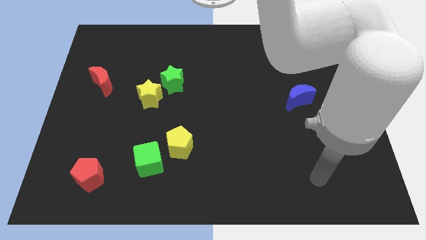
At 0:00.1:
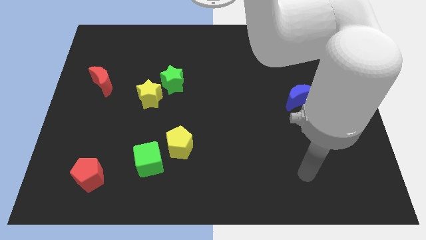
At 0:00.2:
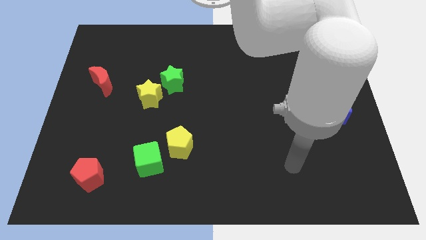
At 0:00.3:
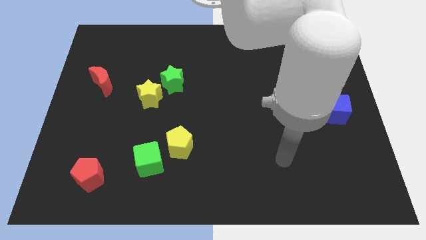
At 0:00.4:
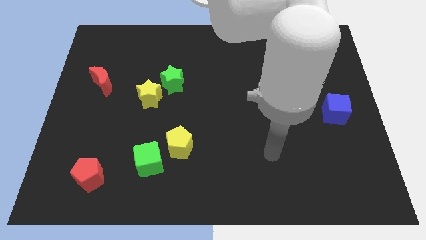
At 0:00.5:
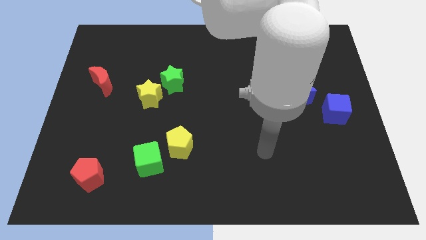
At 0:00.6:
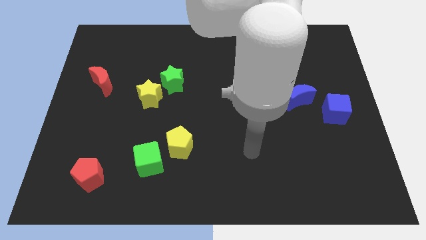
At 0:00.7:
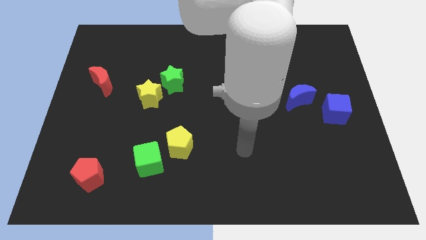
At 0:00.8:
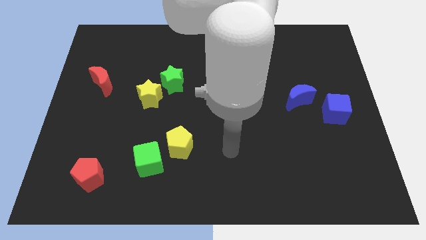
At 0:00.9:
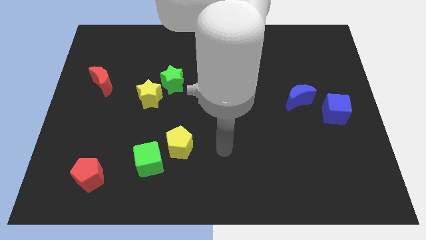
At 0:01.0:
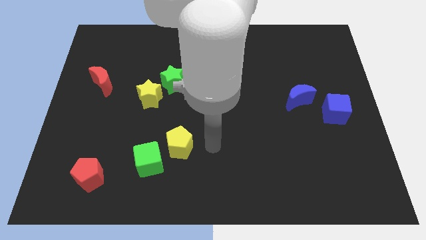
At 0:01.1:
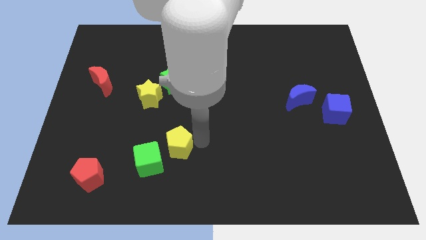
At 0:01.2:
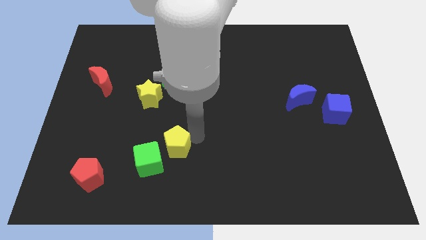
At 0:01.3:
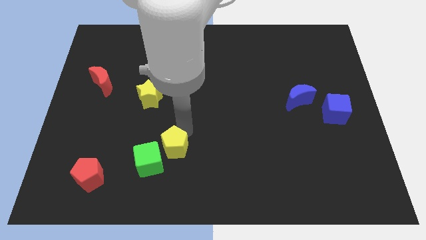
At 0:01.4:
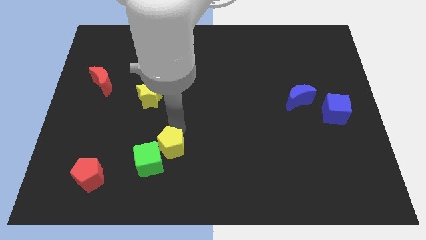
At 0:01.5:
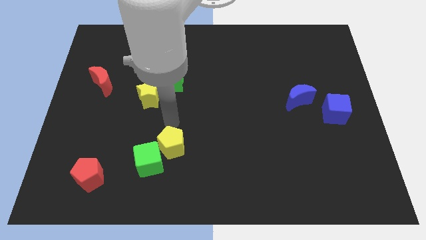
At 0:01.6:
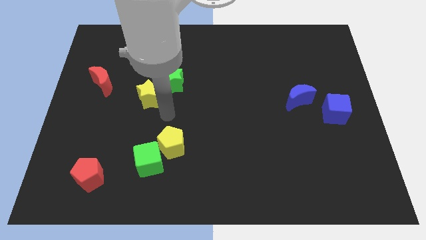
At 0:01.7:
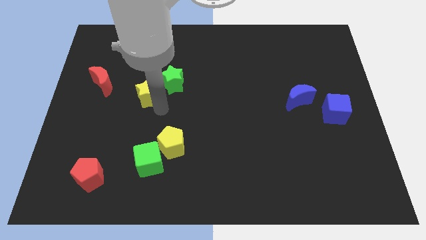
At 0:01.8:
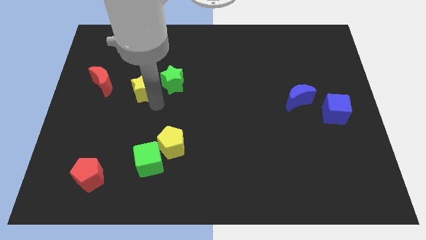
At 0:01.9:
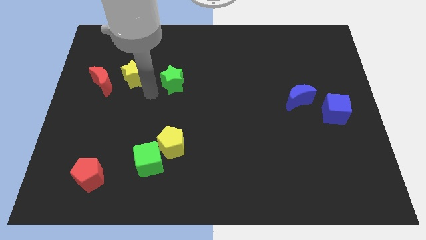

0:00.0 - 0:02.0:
pull the green star apart from the yellow star

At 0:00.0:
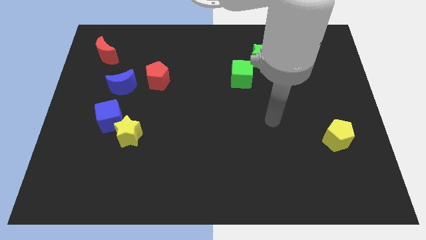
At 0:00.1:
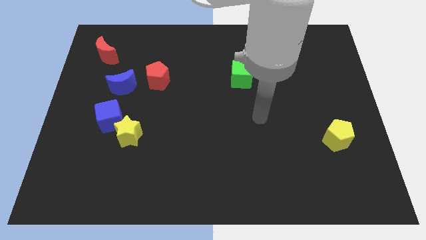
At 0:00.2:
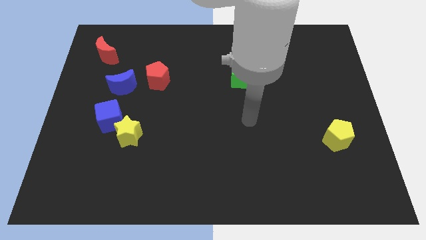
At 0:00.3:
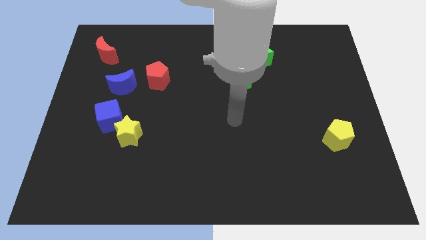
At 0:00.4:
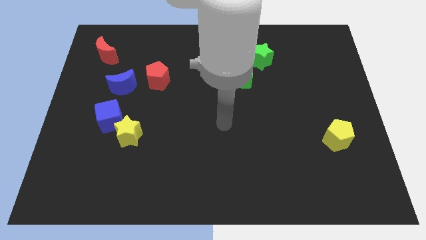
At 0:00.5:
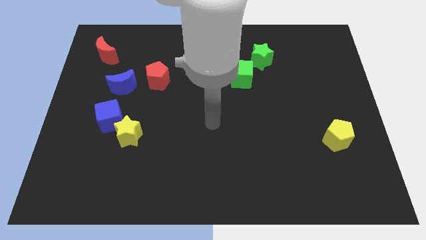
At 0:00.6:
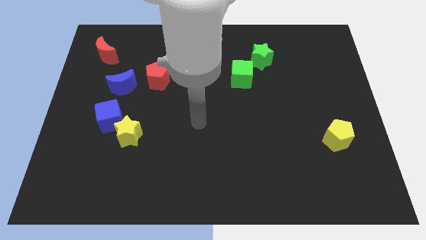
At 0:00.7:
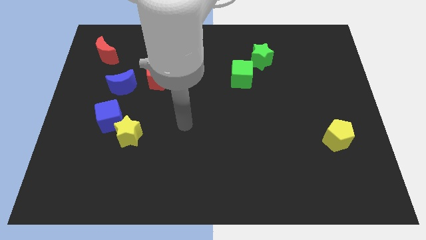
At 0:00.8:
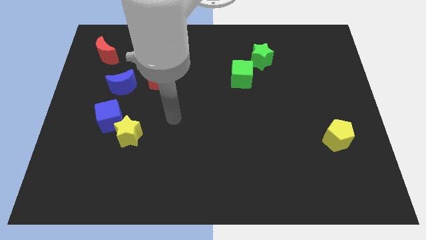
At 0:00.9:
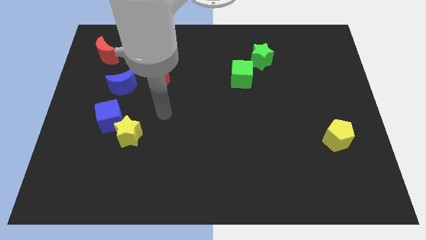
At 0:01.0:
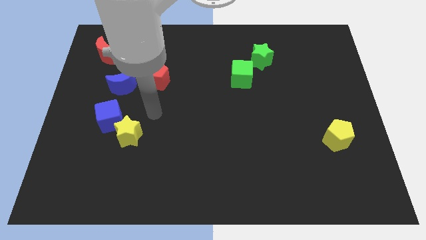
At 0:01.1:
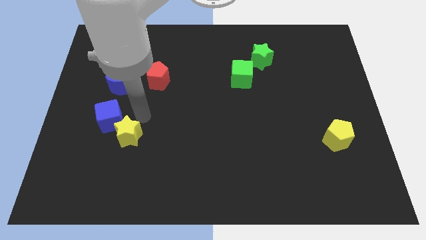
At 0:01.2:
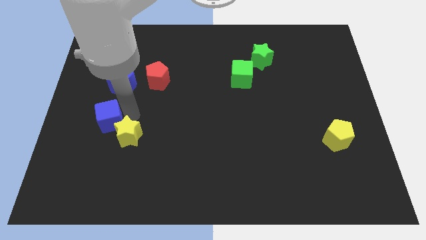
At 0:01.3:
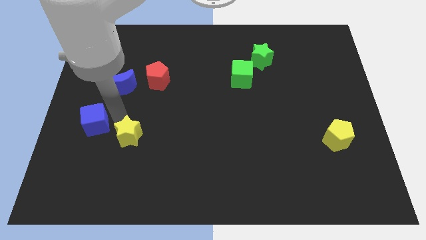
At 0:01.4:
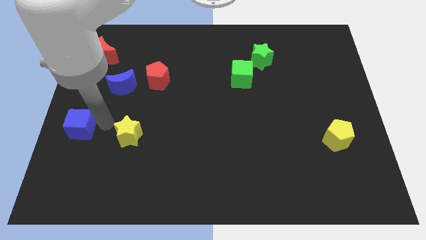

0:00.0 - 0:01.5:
pull the yellow star apart from the blue cube

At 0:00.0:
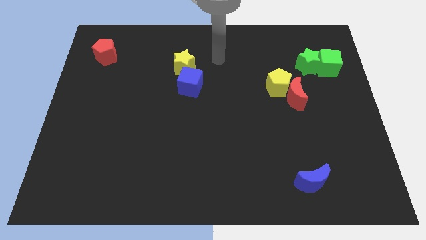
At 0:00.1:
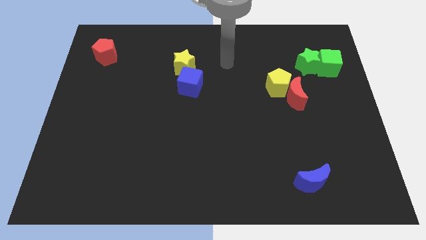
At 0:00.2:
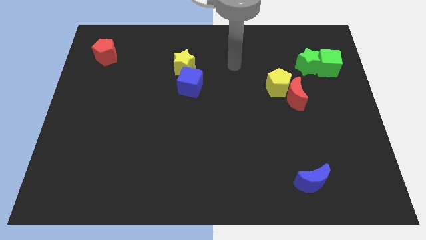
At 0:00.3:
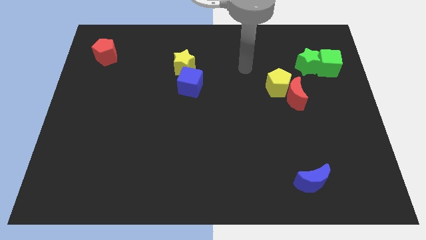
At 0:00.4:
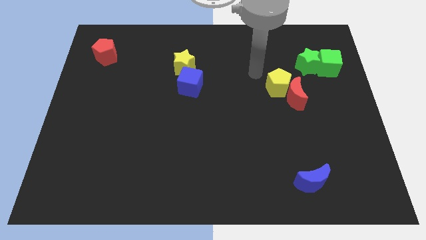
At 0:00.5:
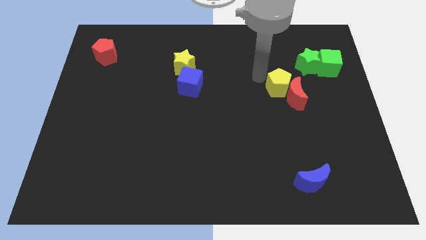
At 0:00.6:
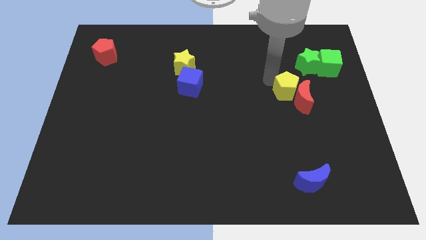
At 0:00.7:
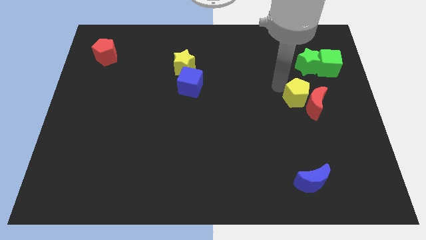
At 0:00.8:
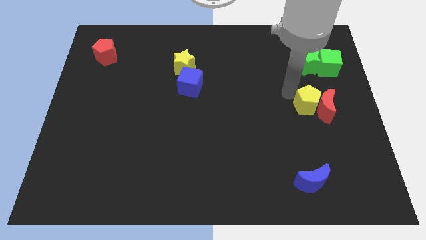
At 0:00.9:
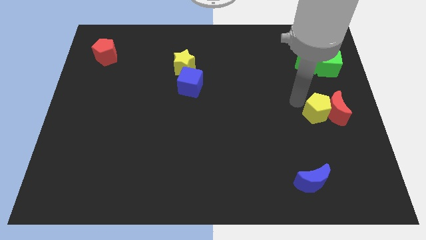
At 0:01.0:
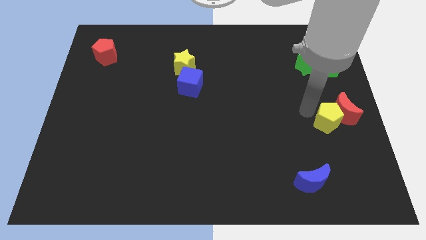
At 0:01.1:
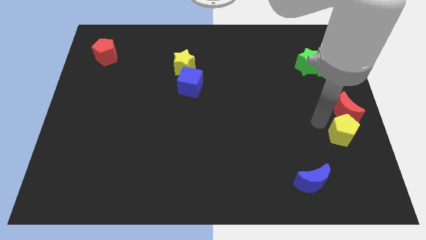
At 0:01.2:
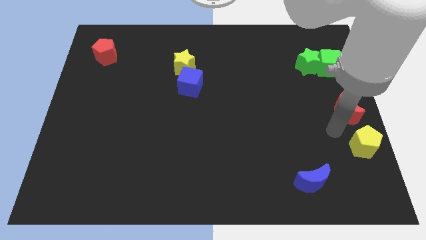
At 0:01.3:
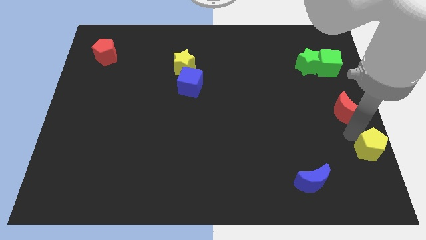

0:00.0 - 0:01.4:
pull the red moon apart from the yellow pentagon

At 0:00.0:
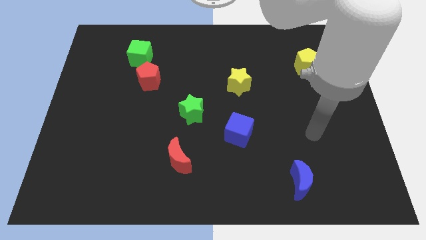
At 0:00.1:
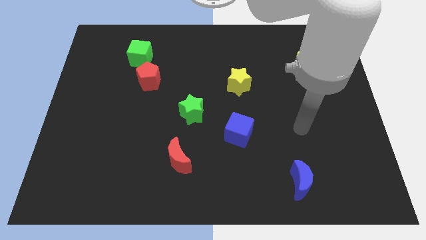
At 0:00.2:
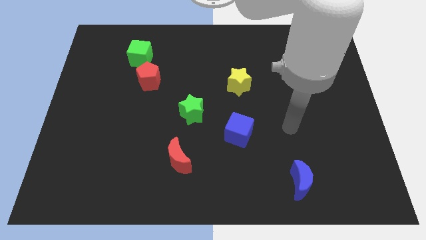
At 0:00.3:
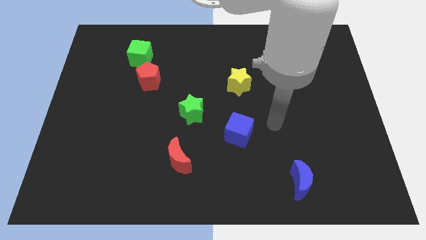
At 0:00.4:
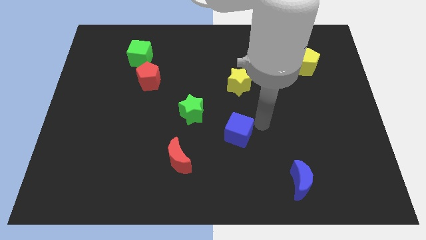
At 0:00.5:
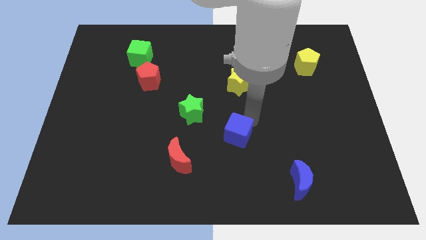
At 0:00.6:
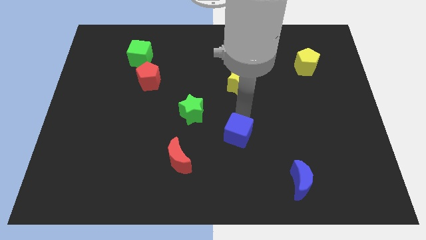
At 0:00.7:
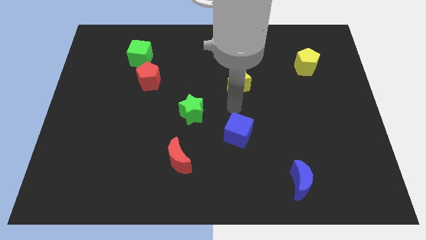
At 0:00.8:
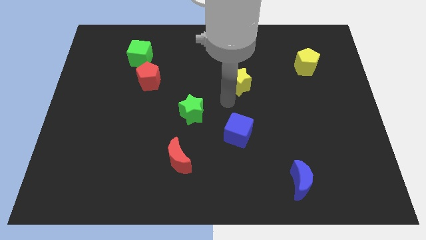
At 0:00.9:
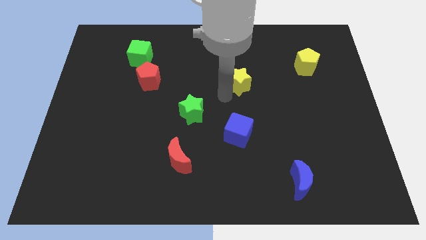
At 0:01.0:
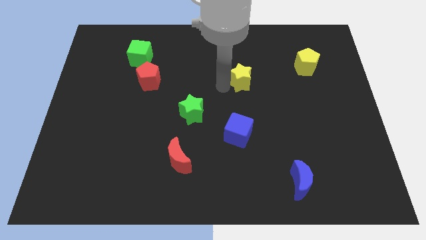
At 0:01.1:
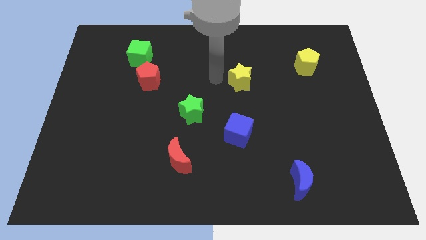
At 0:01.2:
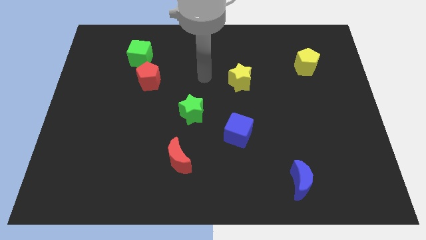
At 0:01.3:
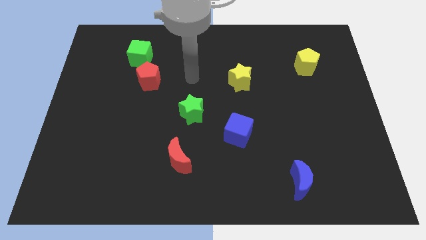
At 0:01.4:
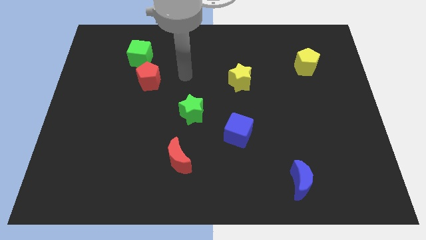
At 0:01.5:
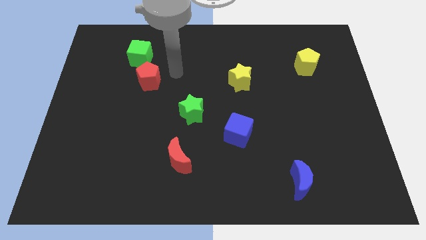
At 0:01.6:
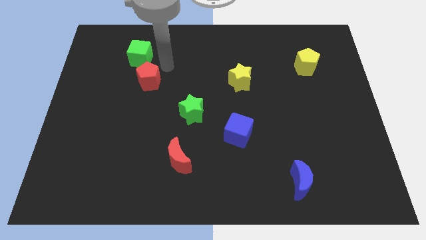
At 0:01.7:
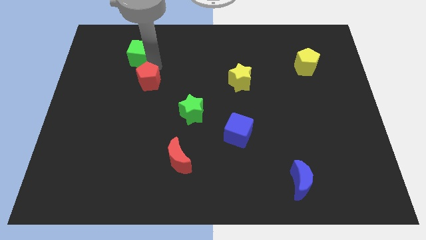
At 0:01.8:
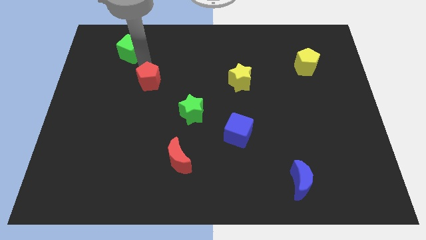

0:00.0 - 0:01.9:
pull the red pentagon apart from the green cube

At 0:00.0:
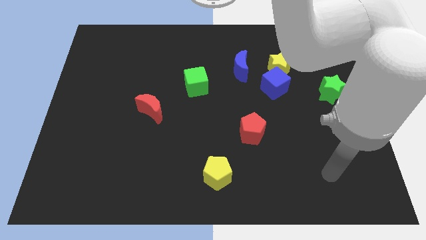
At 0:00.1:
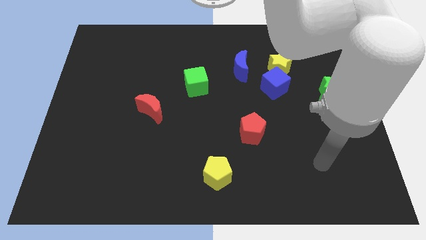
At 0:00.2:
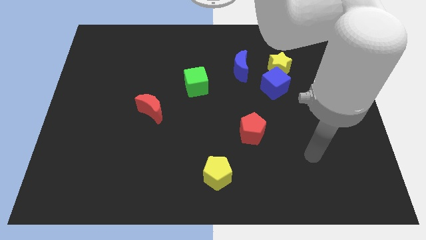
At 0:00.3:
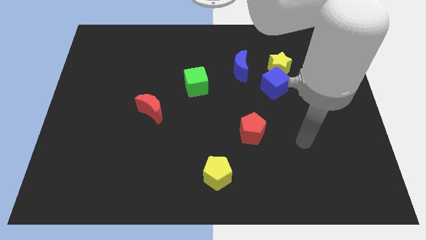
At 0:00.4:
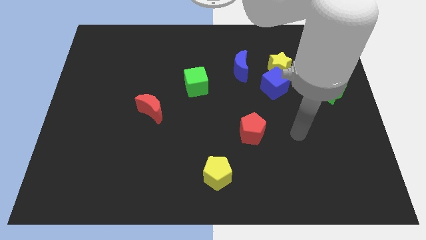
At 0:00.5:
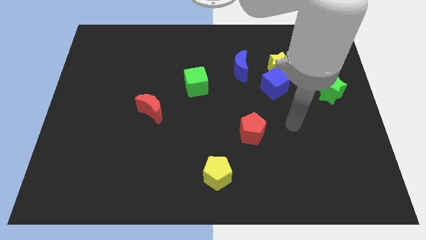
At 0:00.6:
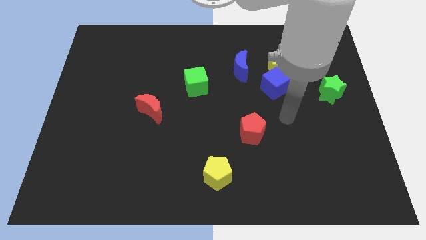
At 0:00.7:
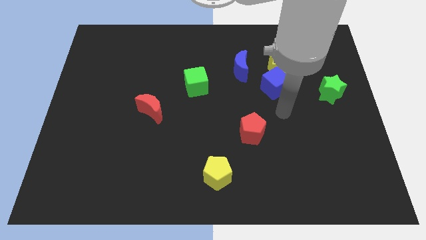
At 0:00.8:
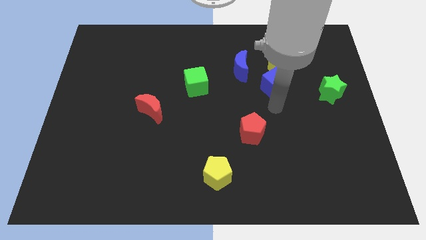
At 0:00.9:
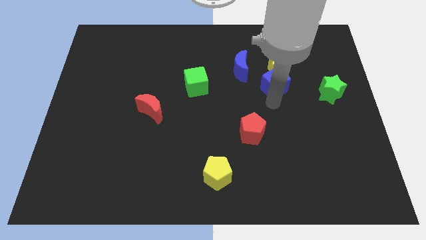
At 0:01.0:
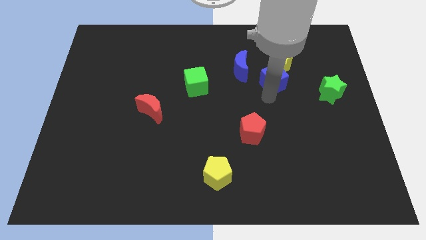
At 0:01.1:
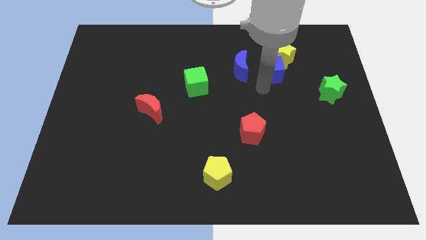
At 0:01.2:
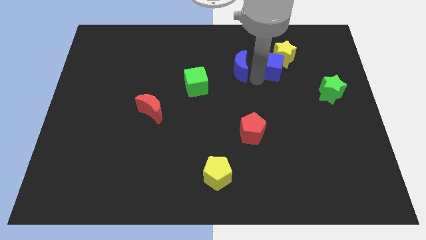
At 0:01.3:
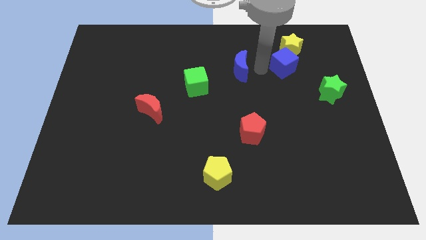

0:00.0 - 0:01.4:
pull the yellow star apart from the blue cube and blue moon

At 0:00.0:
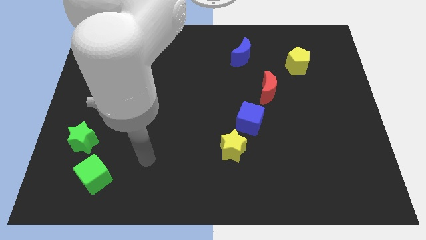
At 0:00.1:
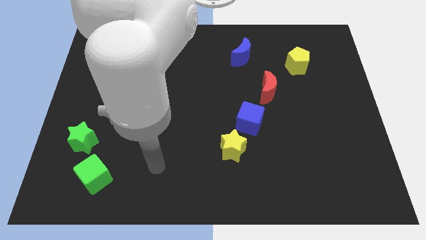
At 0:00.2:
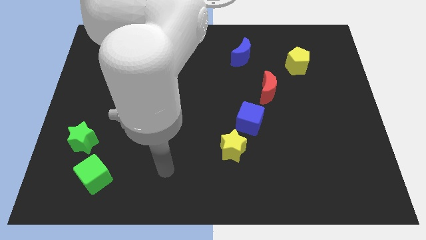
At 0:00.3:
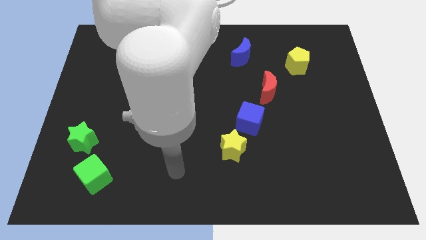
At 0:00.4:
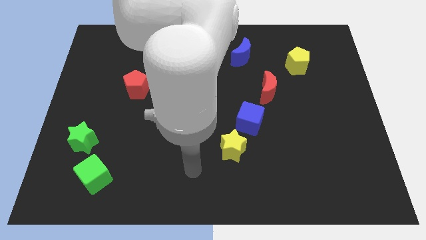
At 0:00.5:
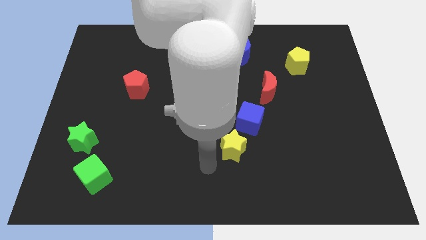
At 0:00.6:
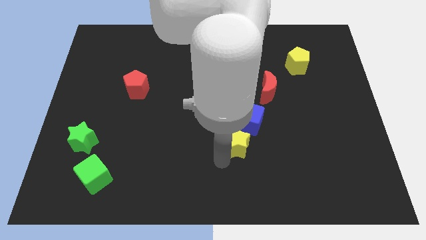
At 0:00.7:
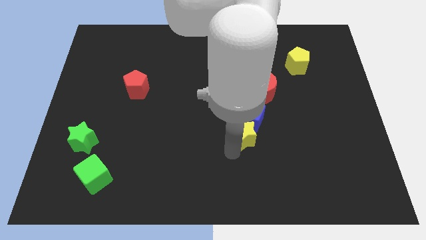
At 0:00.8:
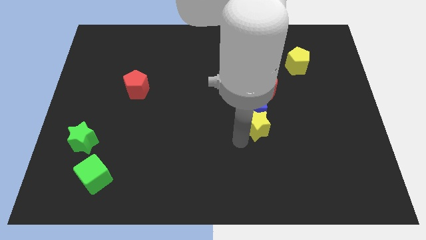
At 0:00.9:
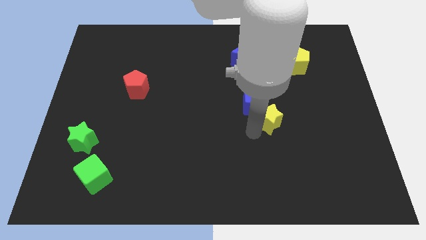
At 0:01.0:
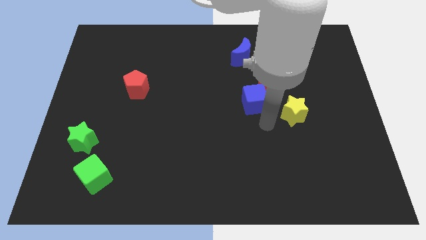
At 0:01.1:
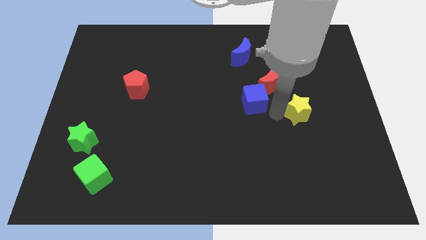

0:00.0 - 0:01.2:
move the blue cube away from the yellow star
